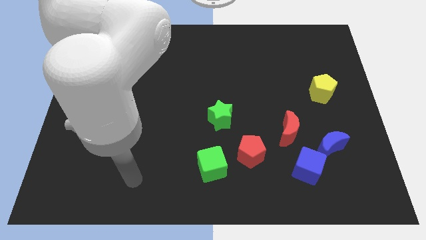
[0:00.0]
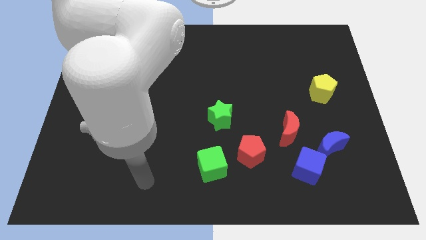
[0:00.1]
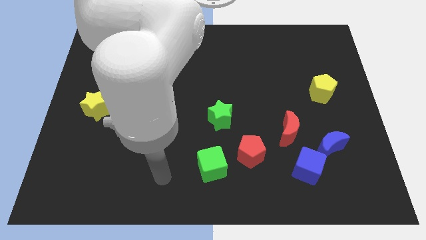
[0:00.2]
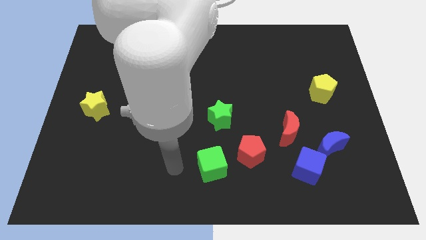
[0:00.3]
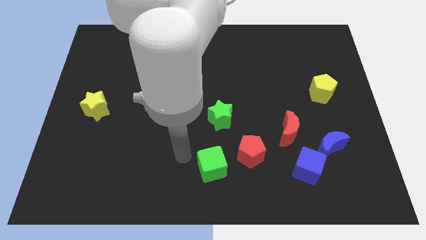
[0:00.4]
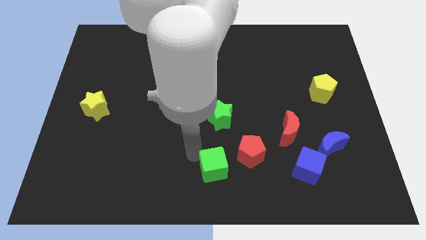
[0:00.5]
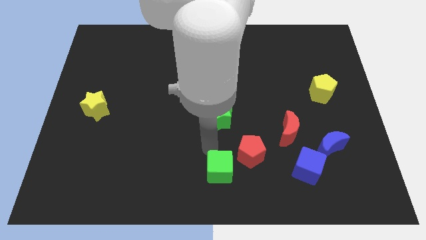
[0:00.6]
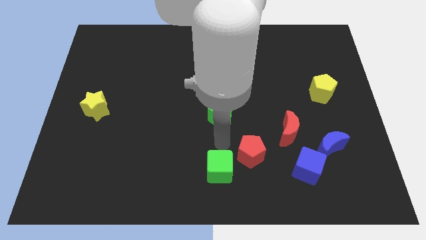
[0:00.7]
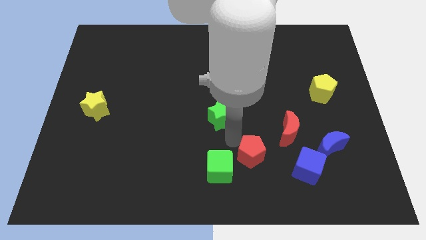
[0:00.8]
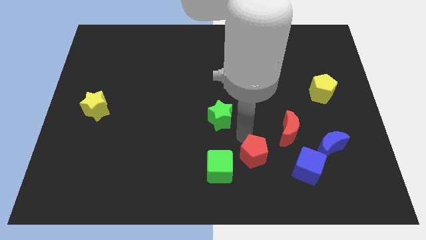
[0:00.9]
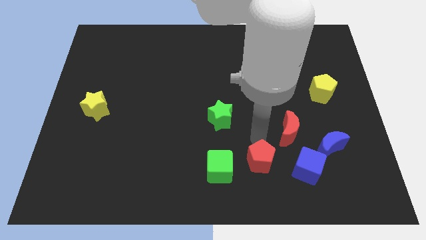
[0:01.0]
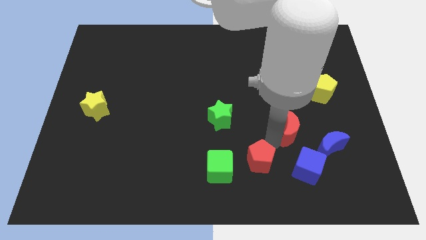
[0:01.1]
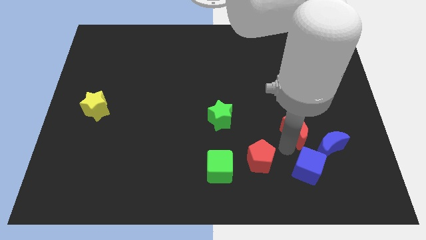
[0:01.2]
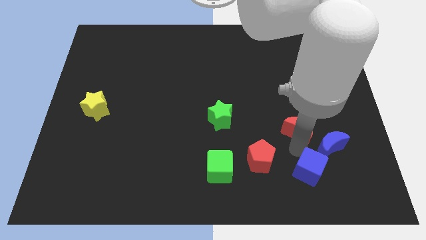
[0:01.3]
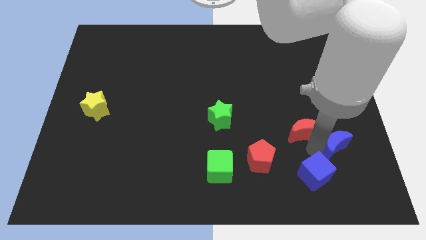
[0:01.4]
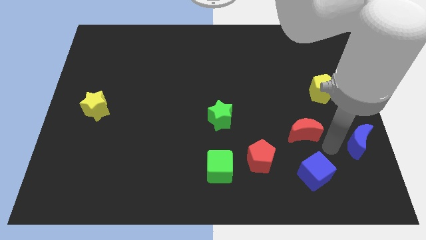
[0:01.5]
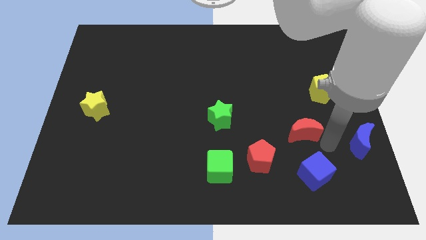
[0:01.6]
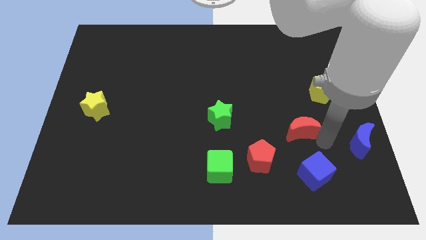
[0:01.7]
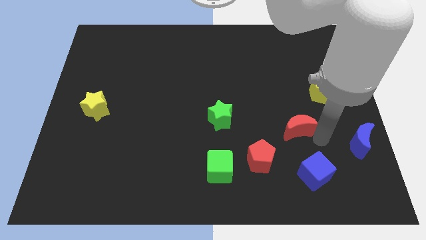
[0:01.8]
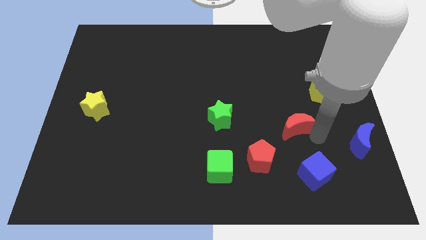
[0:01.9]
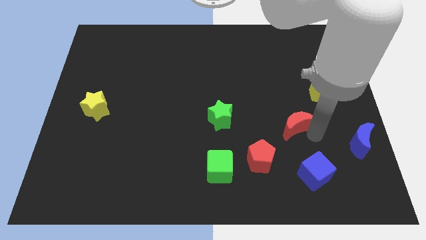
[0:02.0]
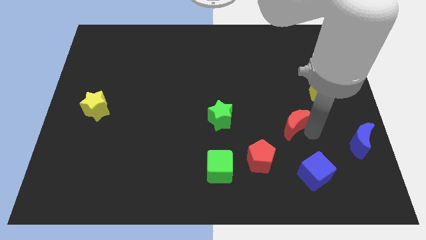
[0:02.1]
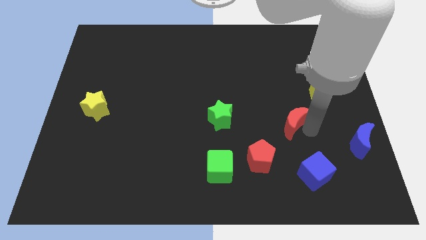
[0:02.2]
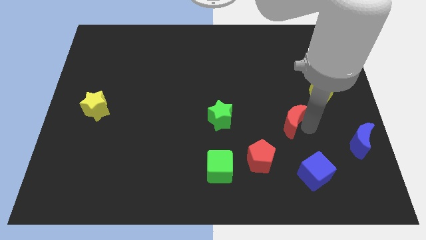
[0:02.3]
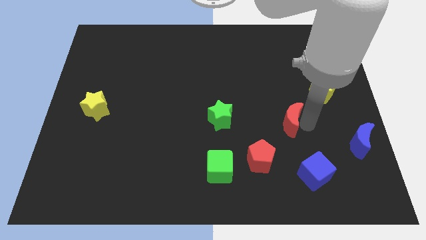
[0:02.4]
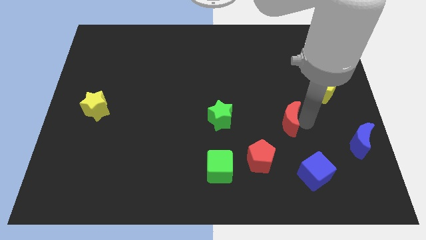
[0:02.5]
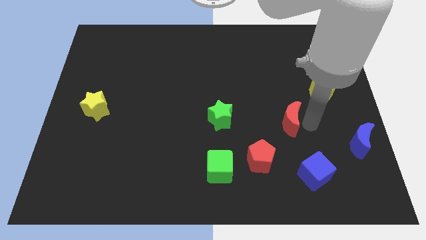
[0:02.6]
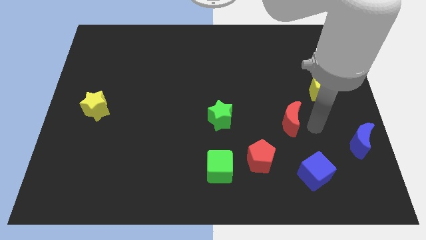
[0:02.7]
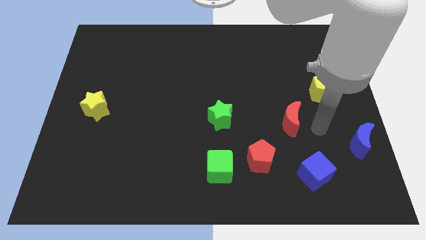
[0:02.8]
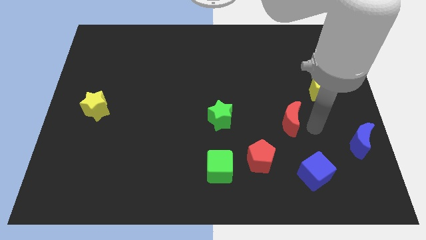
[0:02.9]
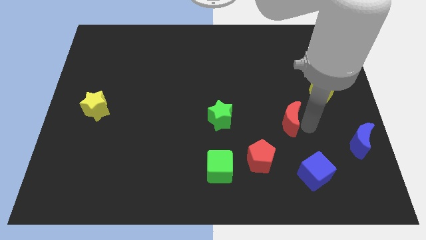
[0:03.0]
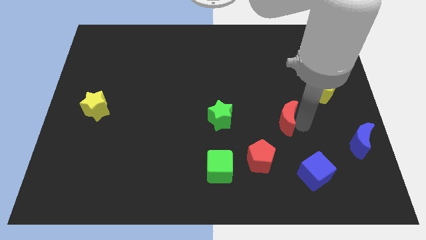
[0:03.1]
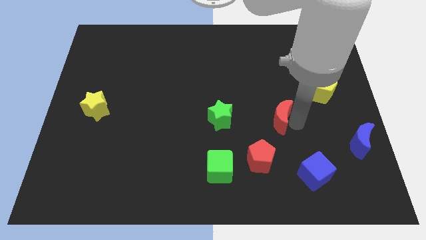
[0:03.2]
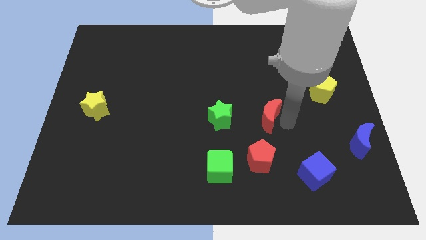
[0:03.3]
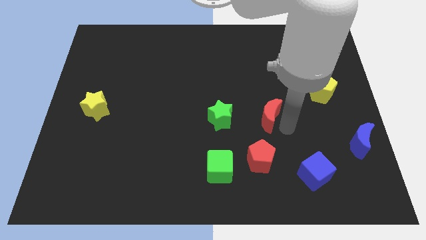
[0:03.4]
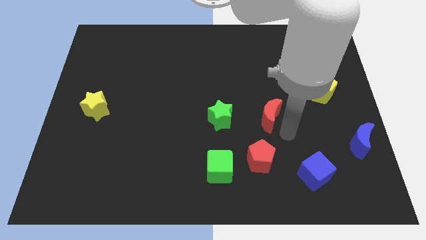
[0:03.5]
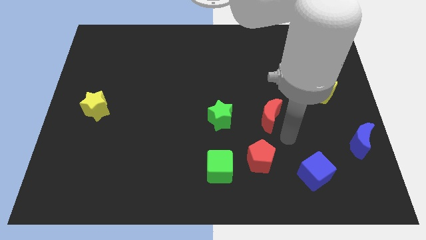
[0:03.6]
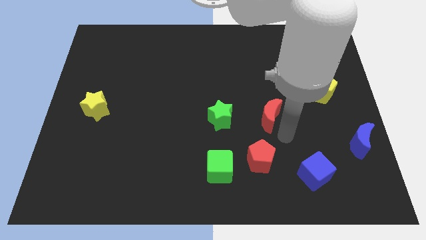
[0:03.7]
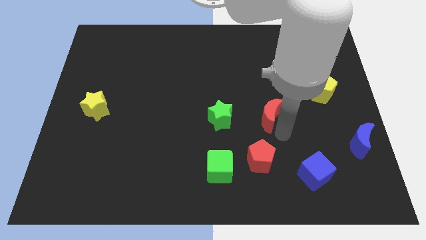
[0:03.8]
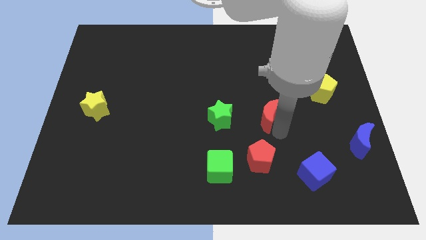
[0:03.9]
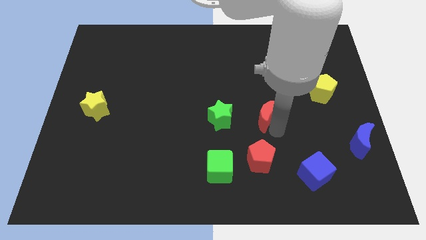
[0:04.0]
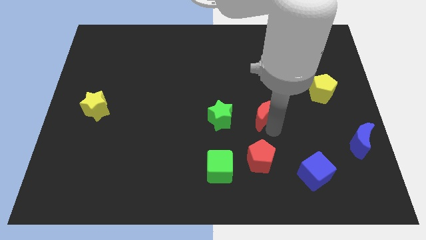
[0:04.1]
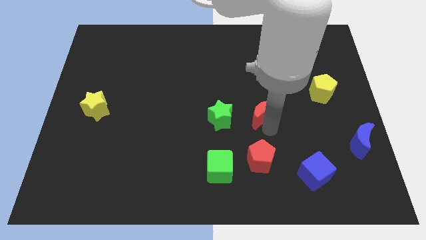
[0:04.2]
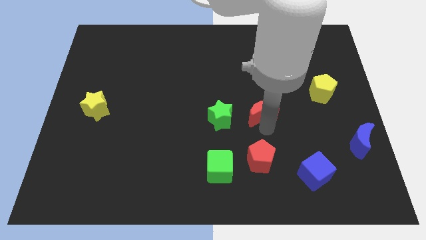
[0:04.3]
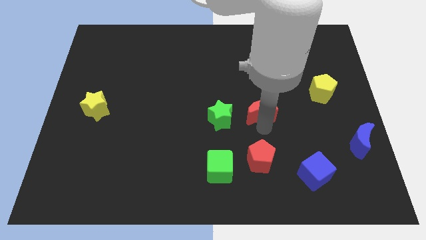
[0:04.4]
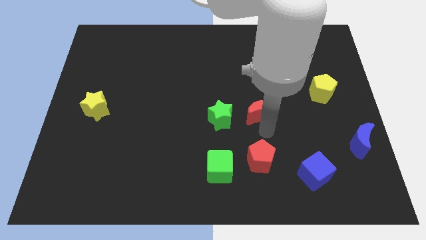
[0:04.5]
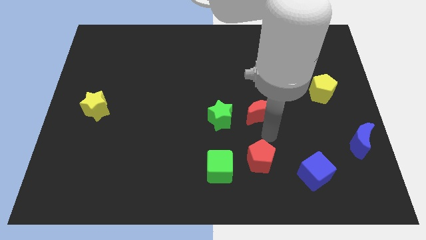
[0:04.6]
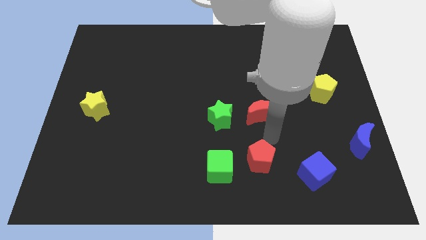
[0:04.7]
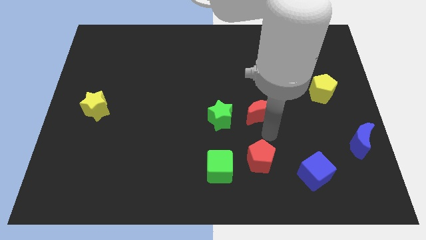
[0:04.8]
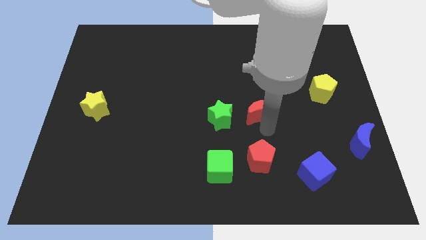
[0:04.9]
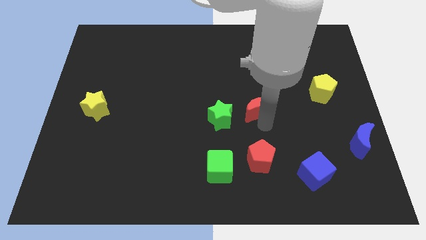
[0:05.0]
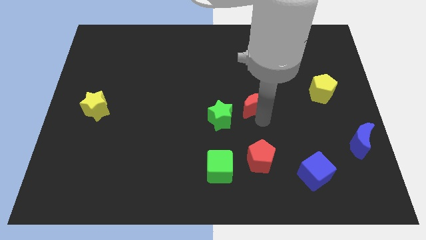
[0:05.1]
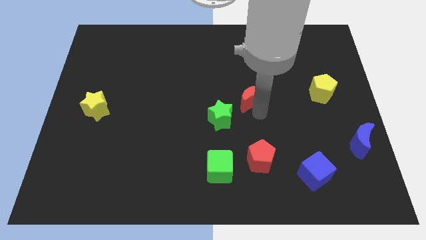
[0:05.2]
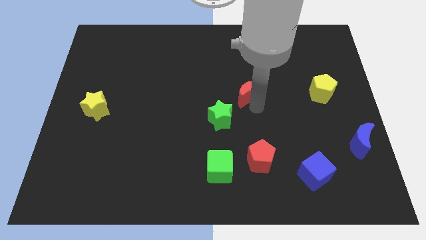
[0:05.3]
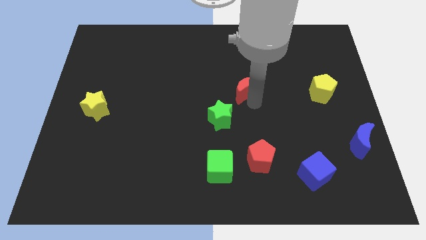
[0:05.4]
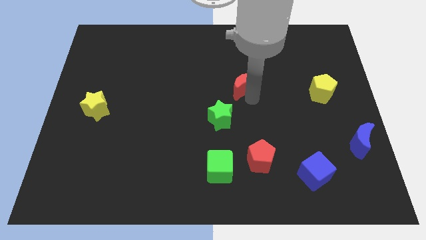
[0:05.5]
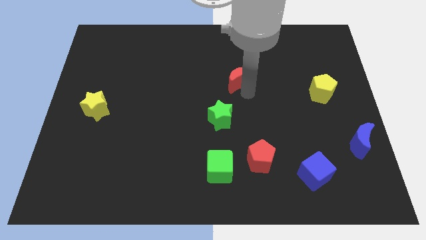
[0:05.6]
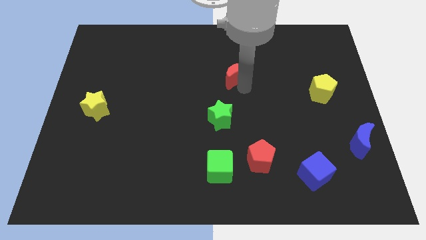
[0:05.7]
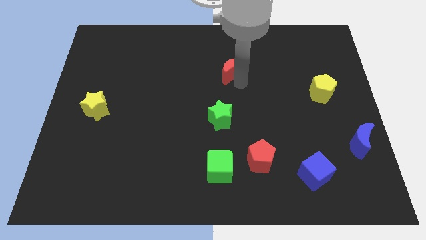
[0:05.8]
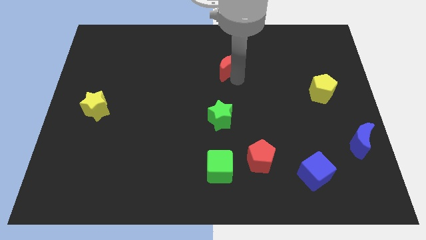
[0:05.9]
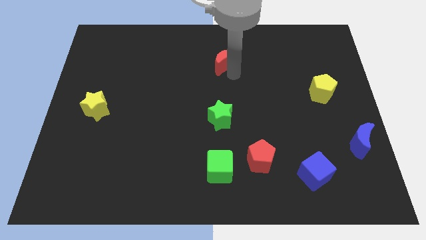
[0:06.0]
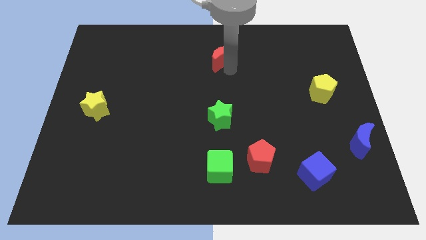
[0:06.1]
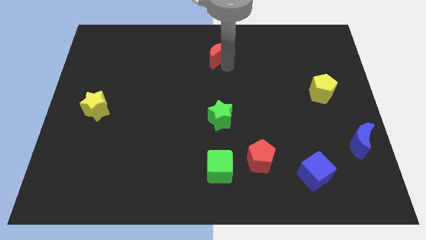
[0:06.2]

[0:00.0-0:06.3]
slide the red moon to the top

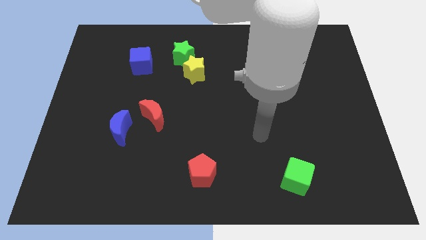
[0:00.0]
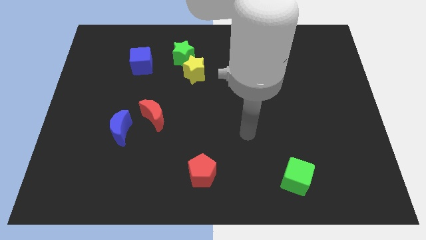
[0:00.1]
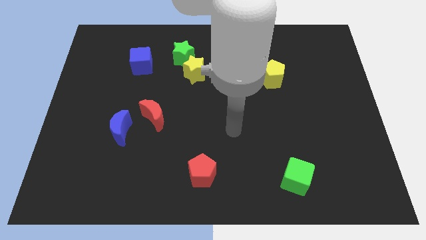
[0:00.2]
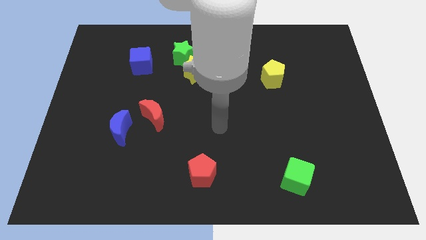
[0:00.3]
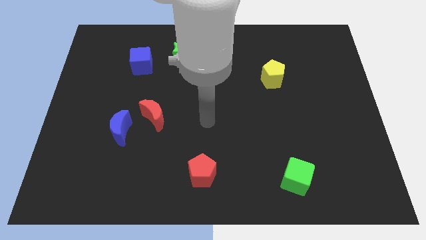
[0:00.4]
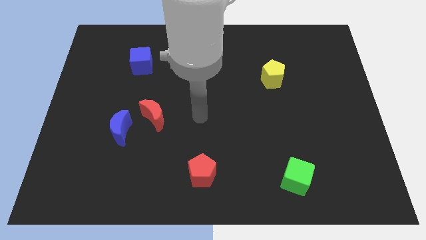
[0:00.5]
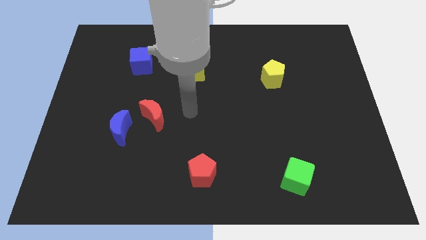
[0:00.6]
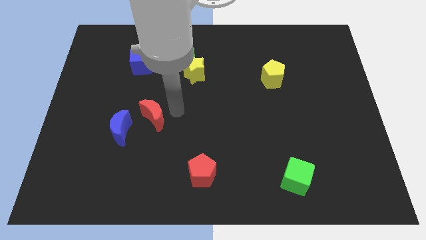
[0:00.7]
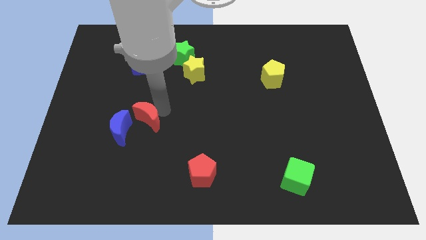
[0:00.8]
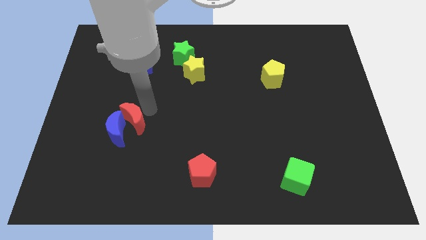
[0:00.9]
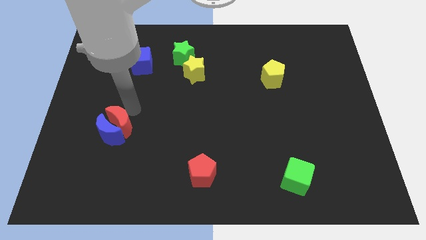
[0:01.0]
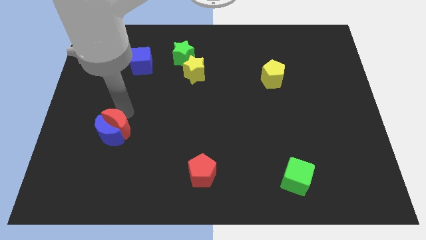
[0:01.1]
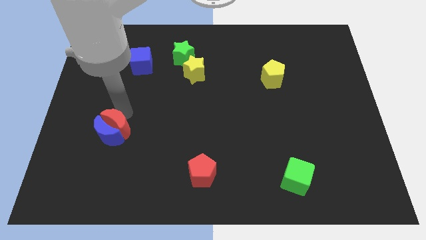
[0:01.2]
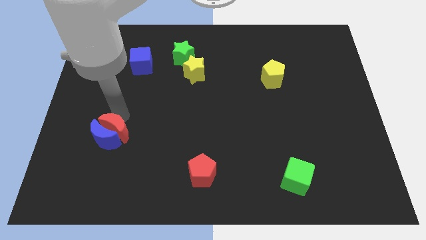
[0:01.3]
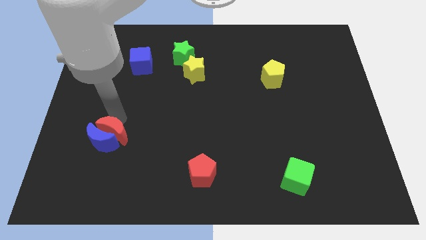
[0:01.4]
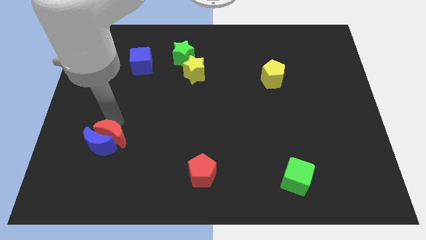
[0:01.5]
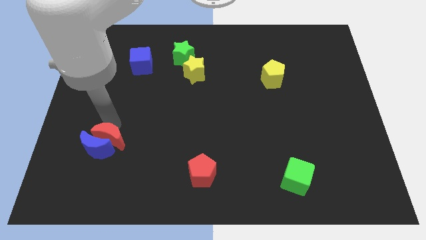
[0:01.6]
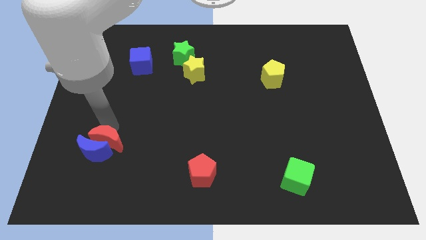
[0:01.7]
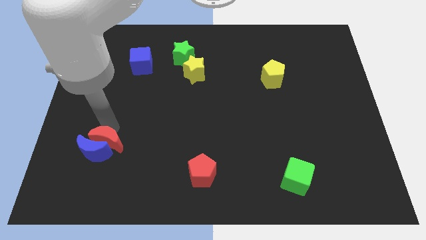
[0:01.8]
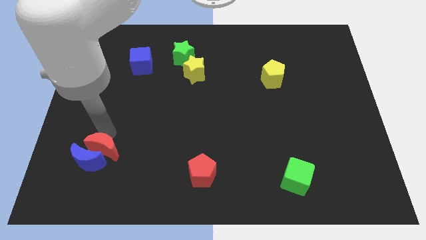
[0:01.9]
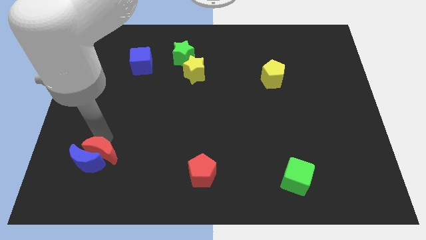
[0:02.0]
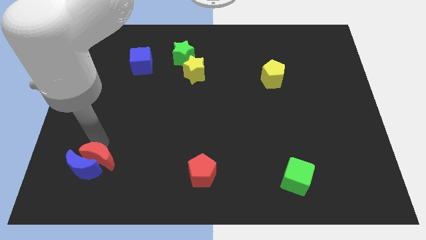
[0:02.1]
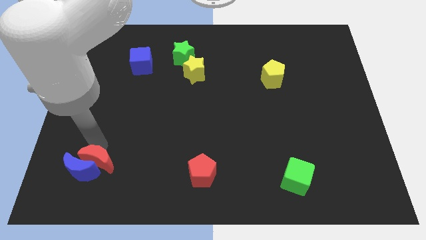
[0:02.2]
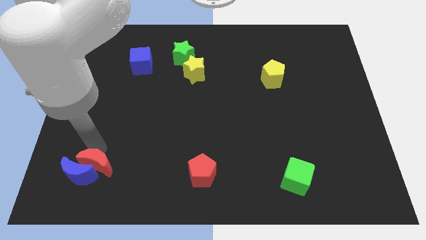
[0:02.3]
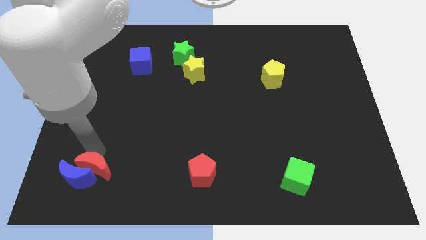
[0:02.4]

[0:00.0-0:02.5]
put the blue moon to the lower left corner
